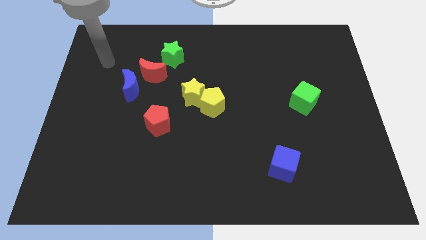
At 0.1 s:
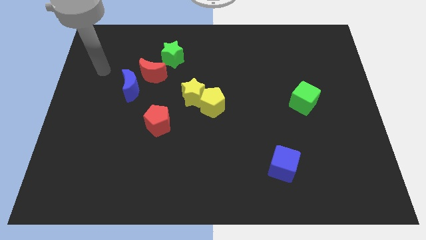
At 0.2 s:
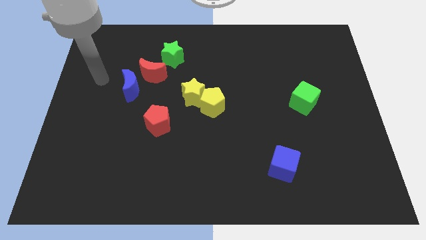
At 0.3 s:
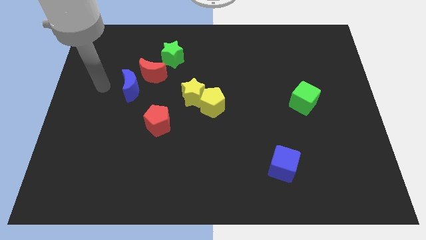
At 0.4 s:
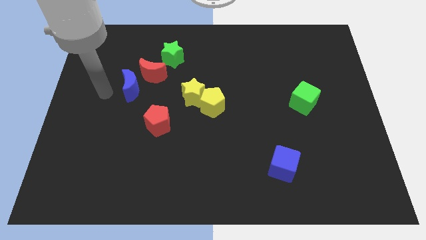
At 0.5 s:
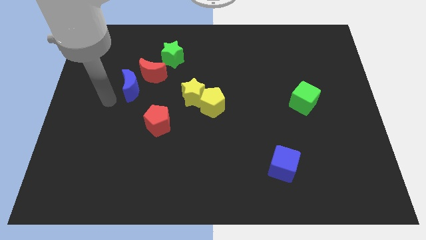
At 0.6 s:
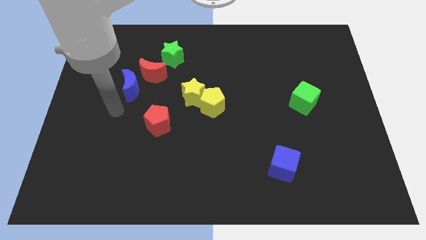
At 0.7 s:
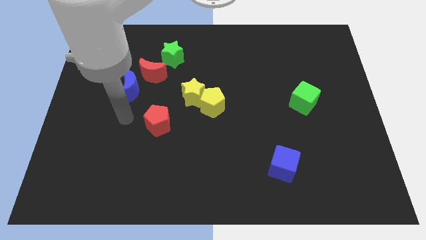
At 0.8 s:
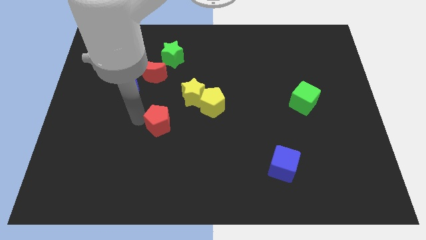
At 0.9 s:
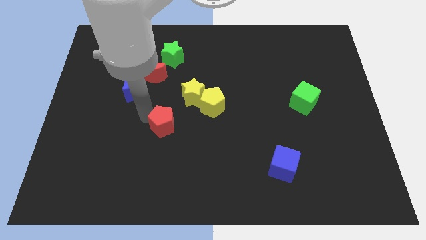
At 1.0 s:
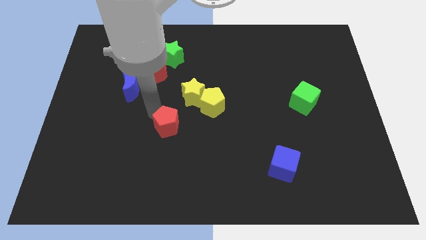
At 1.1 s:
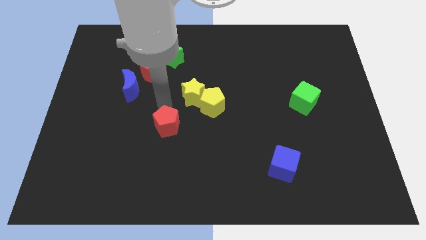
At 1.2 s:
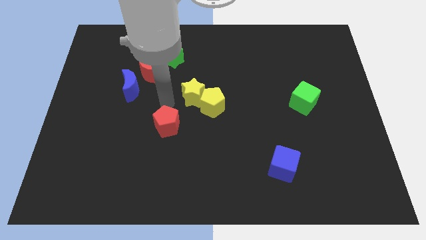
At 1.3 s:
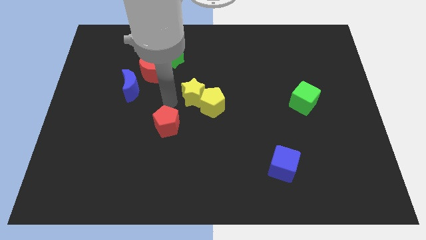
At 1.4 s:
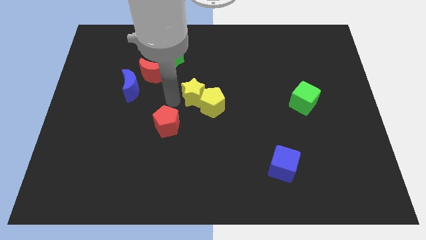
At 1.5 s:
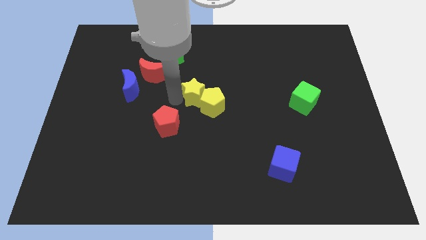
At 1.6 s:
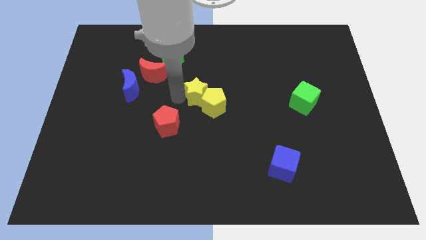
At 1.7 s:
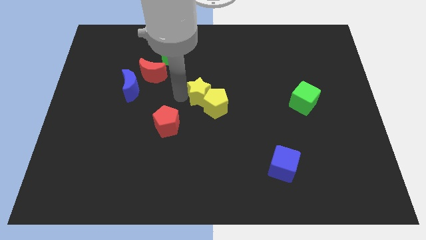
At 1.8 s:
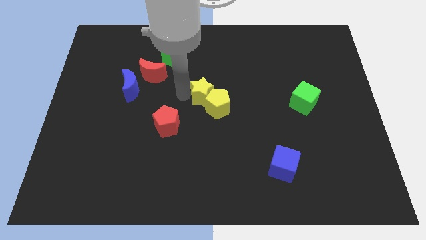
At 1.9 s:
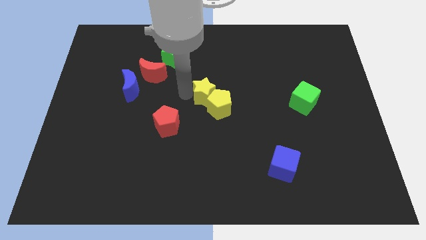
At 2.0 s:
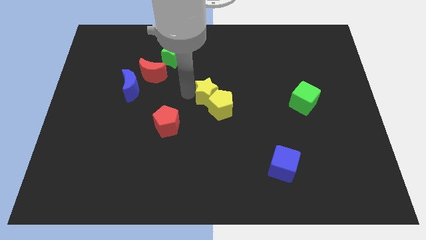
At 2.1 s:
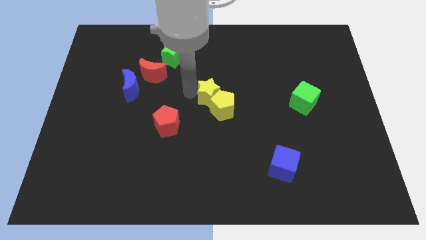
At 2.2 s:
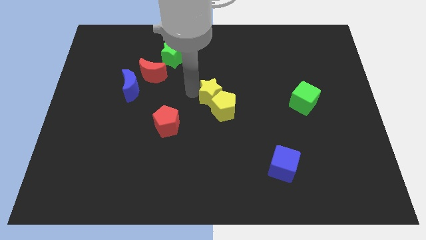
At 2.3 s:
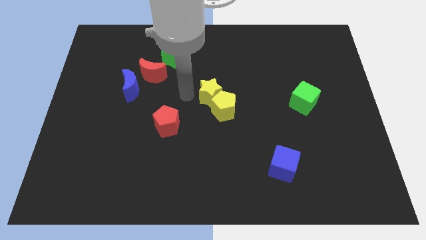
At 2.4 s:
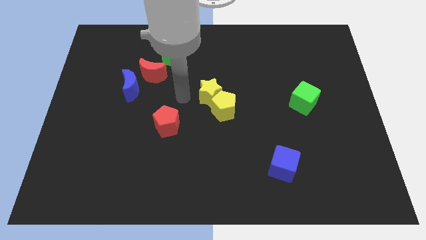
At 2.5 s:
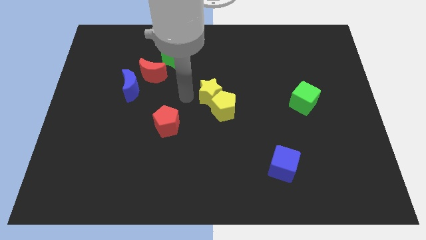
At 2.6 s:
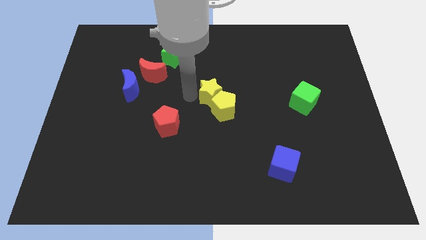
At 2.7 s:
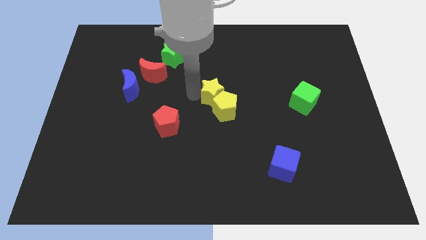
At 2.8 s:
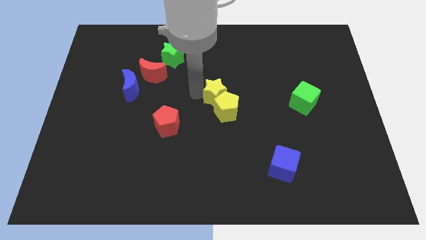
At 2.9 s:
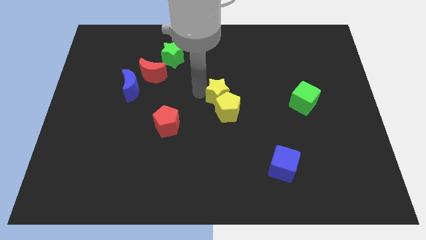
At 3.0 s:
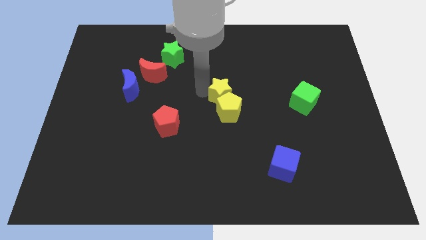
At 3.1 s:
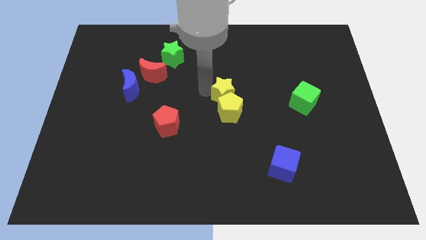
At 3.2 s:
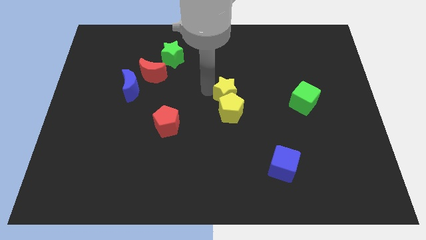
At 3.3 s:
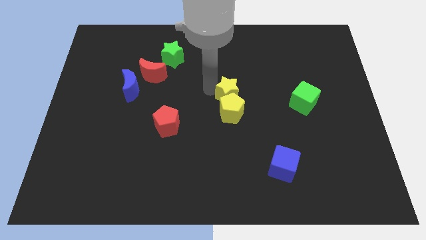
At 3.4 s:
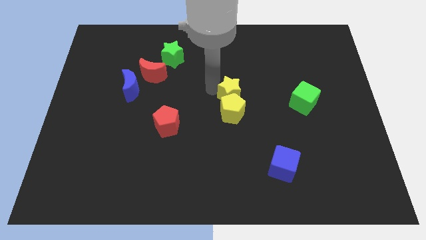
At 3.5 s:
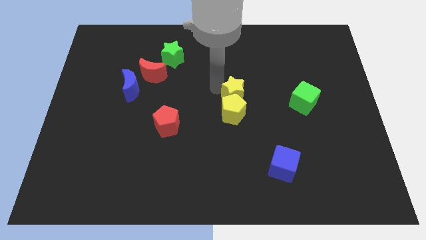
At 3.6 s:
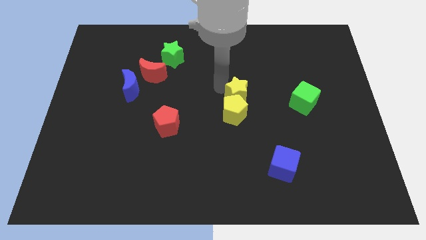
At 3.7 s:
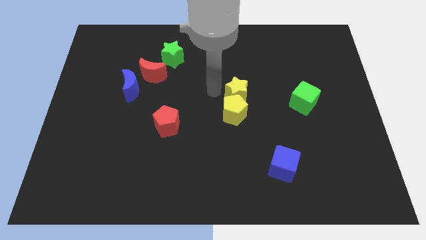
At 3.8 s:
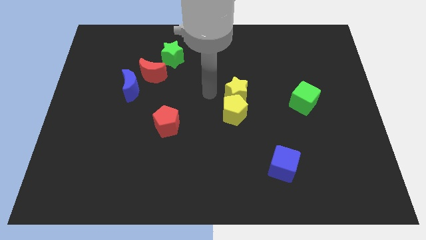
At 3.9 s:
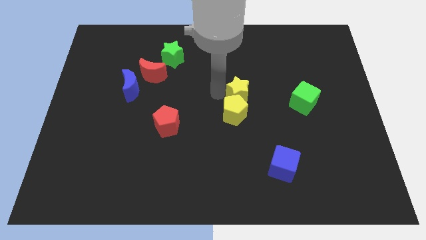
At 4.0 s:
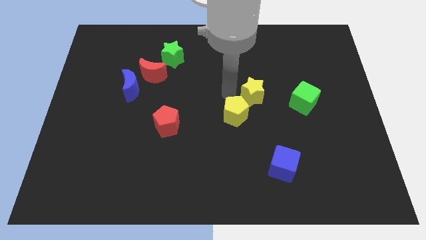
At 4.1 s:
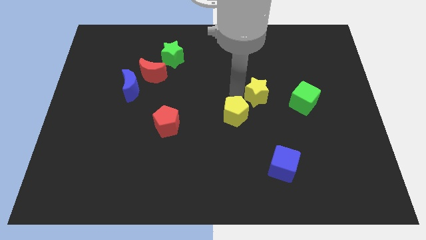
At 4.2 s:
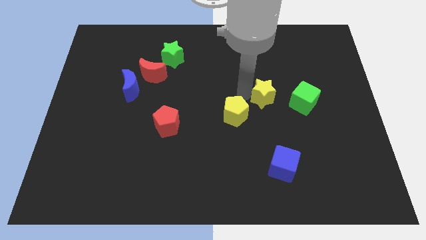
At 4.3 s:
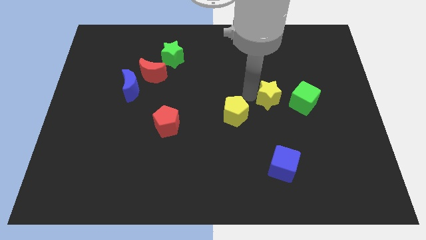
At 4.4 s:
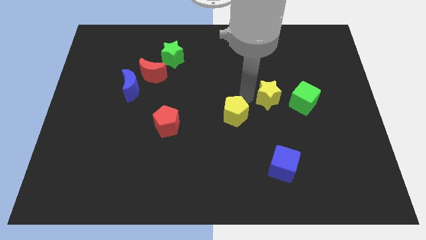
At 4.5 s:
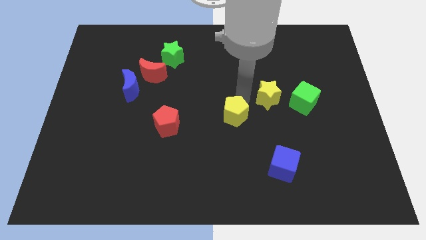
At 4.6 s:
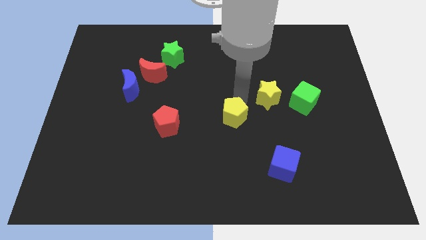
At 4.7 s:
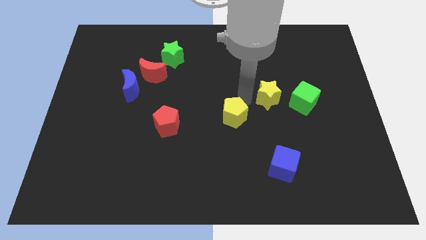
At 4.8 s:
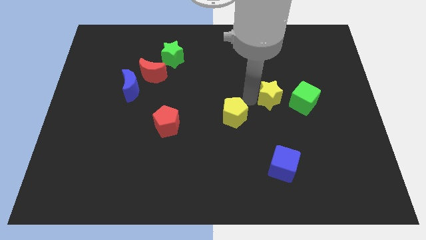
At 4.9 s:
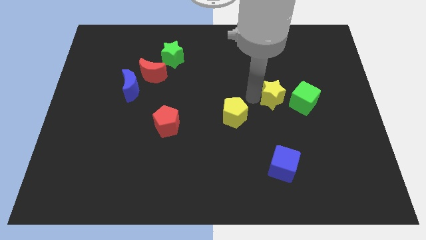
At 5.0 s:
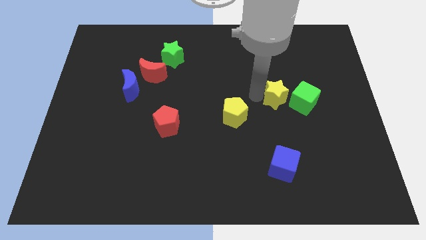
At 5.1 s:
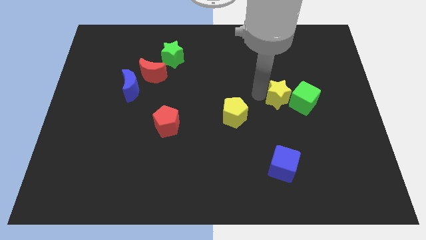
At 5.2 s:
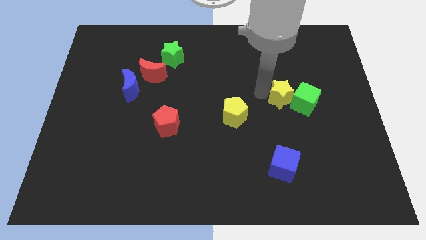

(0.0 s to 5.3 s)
move the yellow star close to the green cube

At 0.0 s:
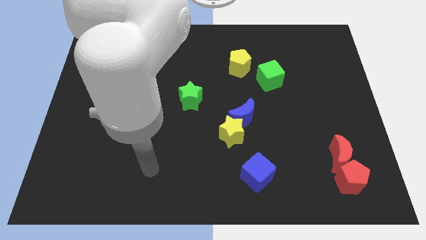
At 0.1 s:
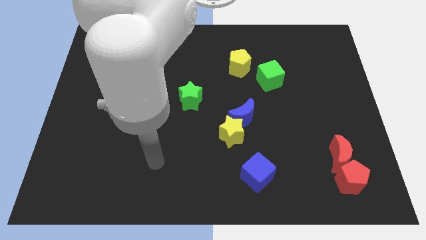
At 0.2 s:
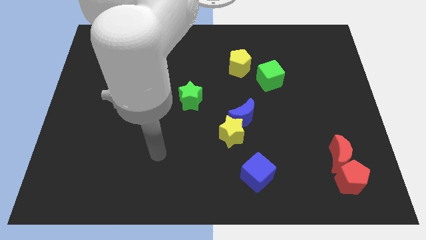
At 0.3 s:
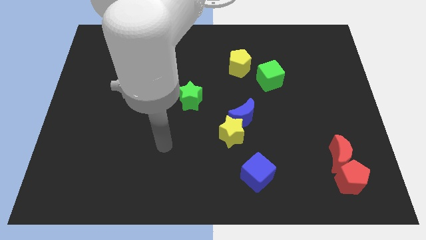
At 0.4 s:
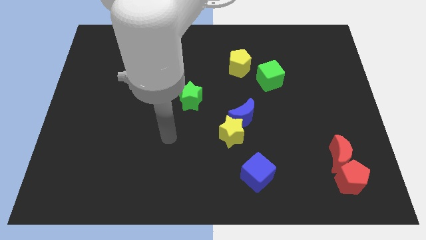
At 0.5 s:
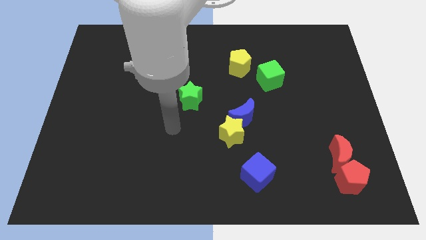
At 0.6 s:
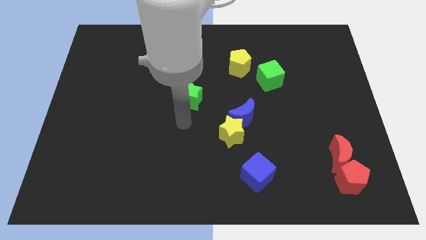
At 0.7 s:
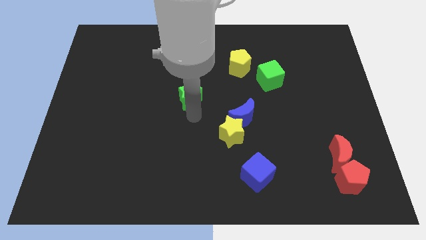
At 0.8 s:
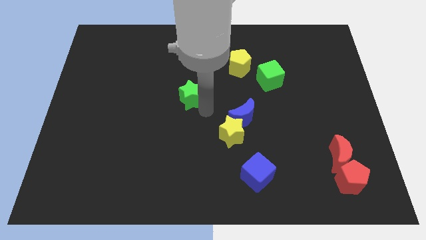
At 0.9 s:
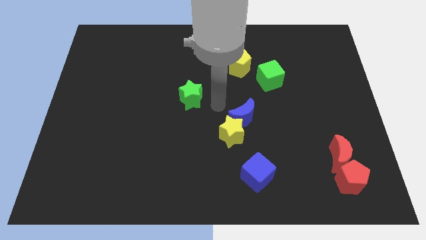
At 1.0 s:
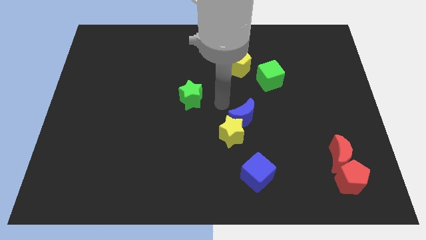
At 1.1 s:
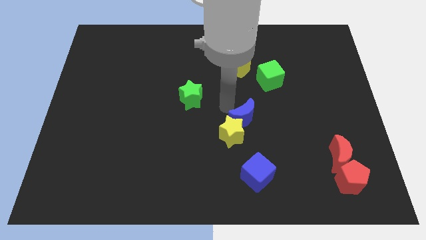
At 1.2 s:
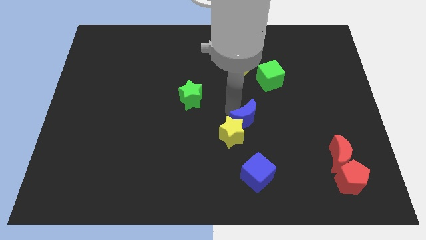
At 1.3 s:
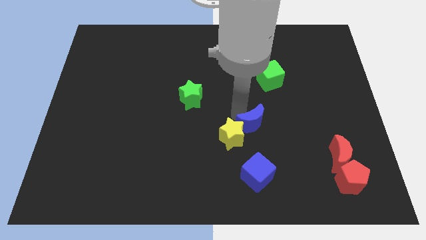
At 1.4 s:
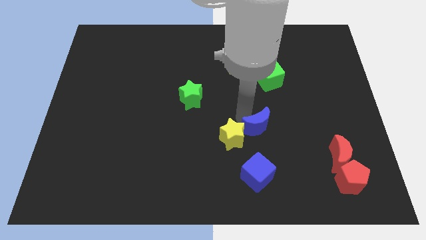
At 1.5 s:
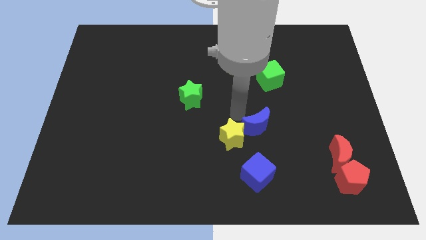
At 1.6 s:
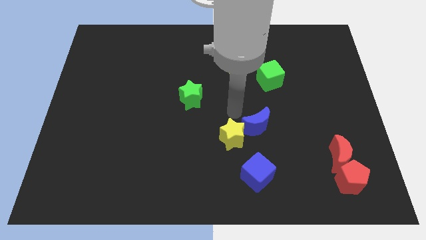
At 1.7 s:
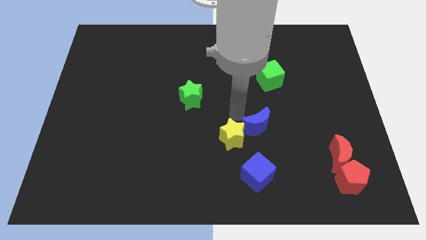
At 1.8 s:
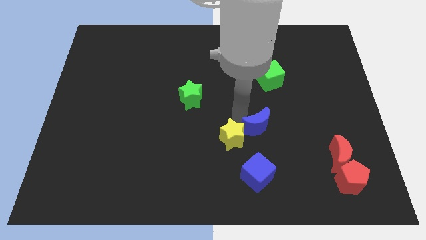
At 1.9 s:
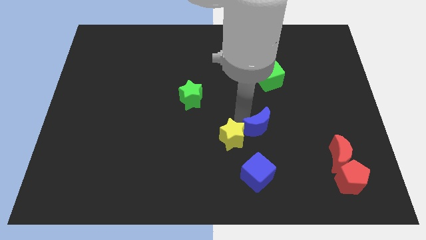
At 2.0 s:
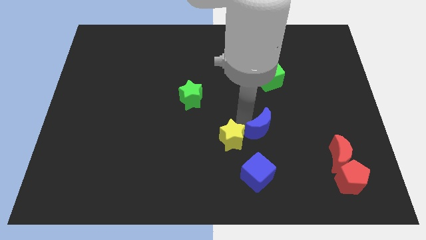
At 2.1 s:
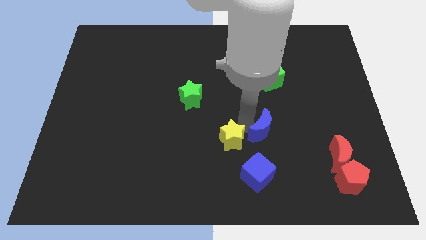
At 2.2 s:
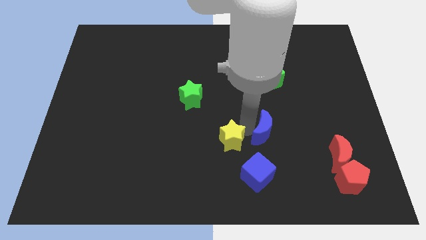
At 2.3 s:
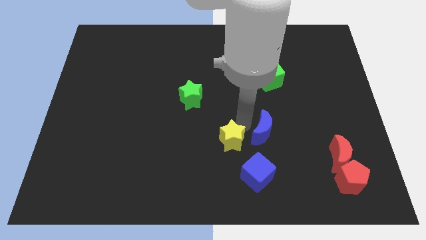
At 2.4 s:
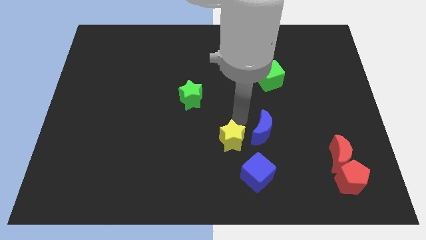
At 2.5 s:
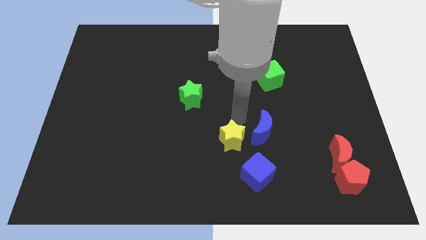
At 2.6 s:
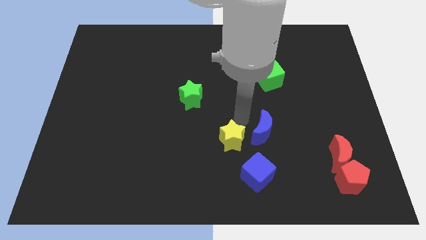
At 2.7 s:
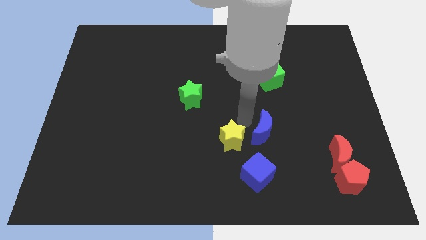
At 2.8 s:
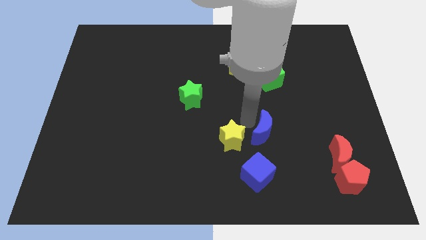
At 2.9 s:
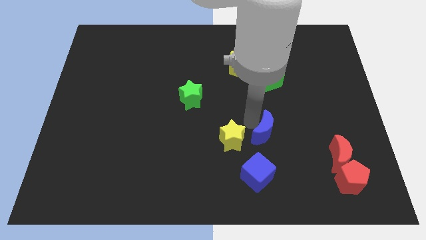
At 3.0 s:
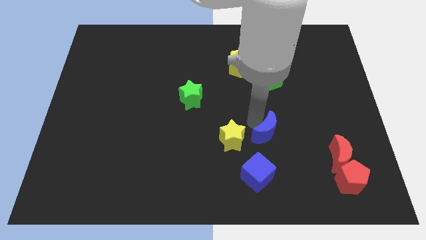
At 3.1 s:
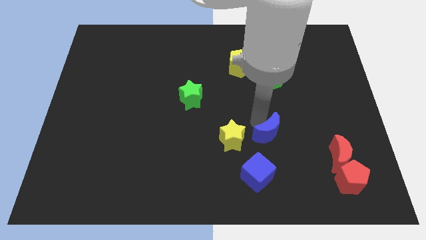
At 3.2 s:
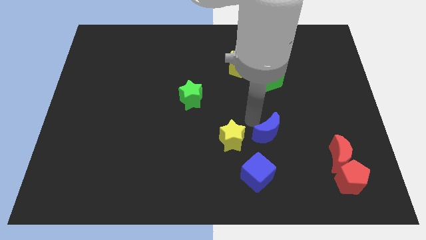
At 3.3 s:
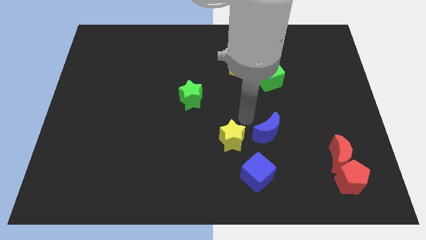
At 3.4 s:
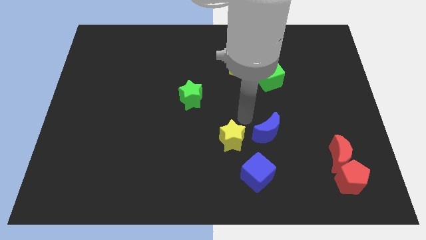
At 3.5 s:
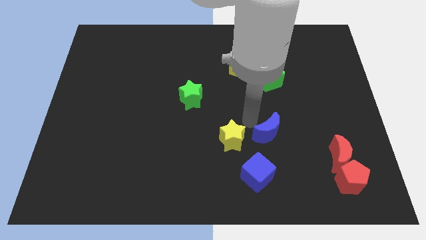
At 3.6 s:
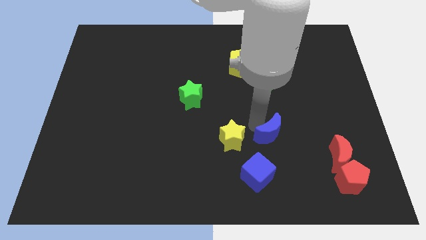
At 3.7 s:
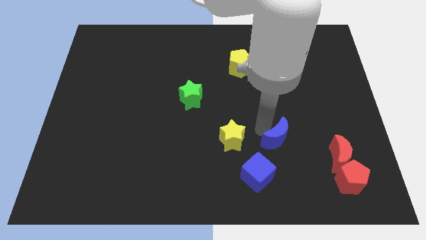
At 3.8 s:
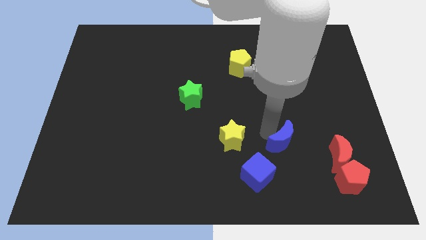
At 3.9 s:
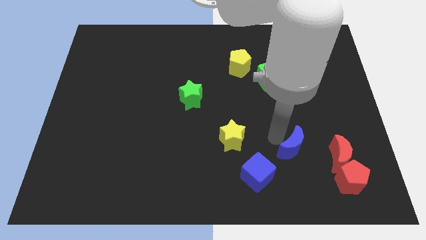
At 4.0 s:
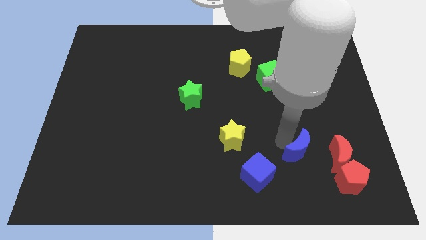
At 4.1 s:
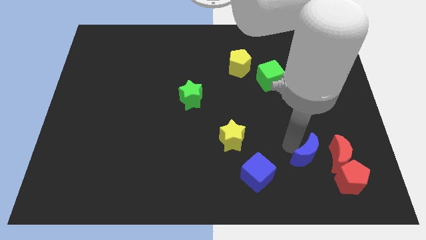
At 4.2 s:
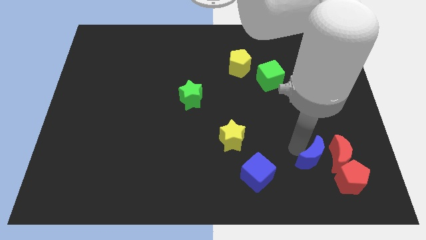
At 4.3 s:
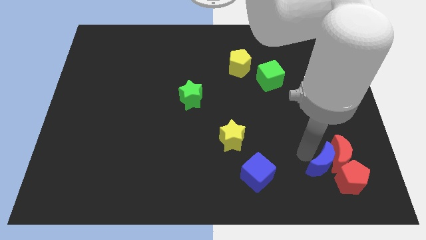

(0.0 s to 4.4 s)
push the blue moon close to the red pentagon
